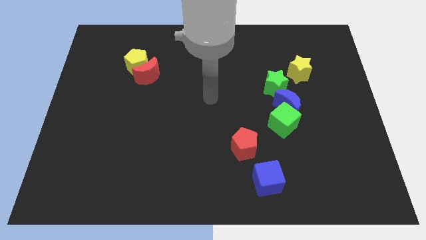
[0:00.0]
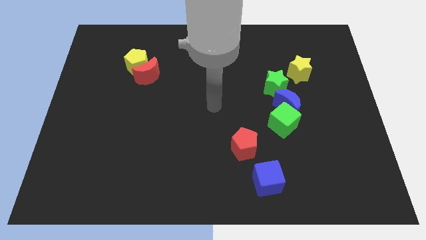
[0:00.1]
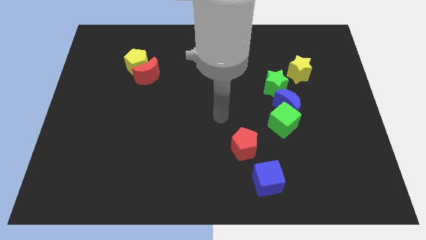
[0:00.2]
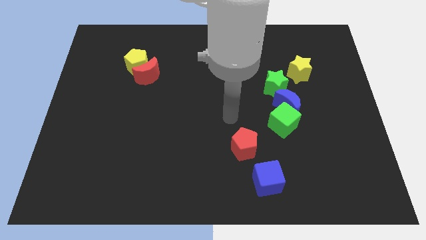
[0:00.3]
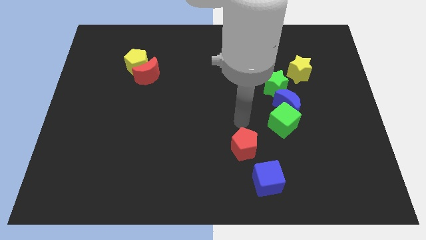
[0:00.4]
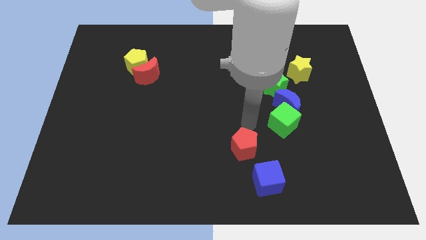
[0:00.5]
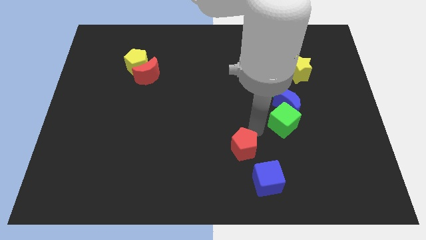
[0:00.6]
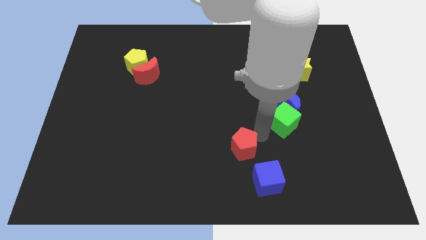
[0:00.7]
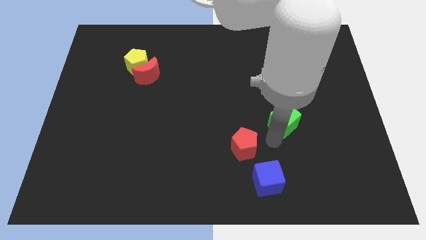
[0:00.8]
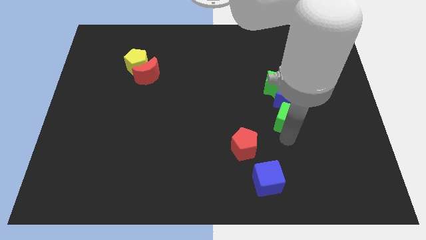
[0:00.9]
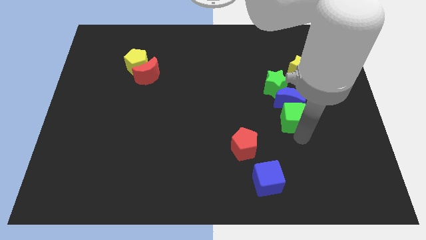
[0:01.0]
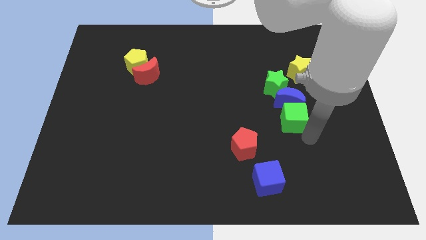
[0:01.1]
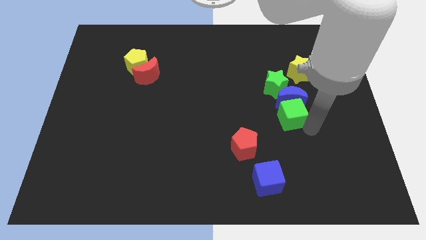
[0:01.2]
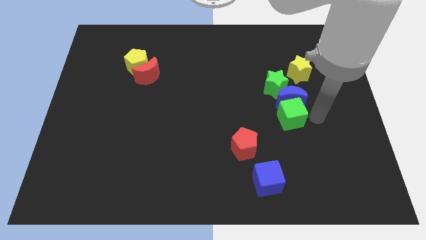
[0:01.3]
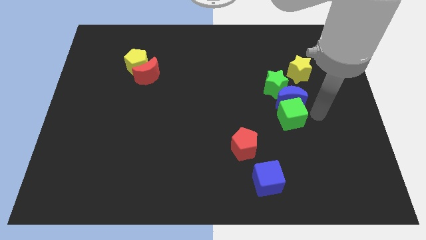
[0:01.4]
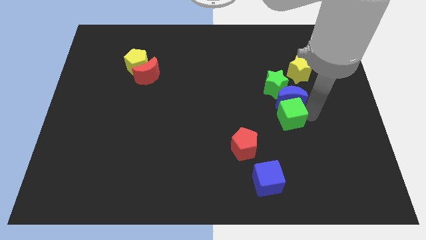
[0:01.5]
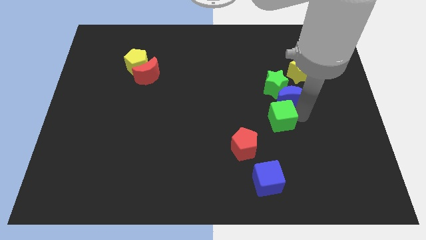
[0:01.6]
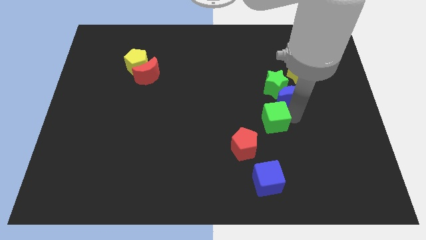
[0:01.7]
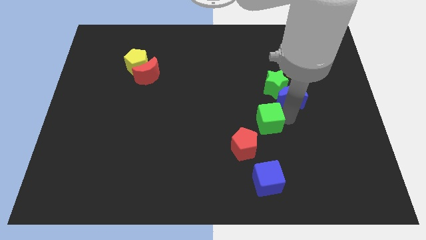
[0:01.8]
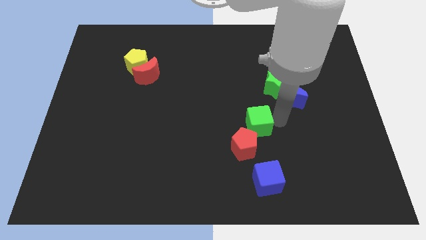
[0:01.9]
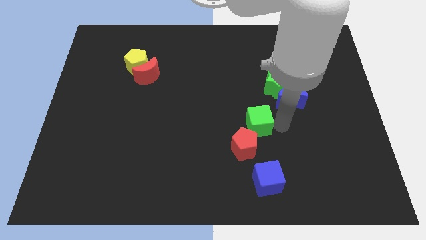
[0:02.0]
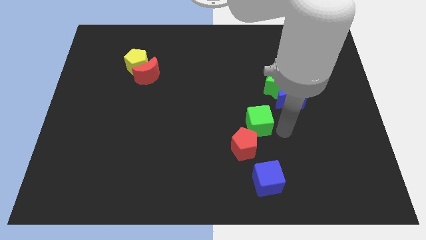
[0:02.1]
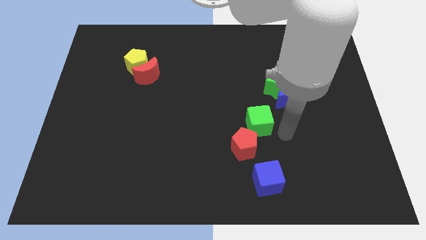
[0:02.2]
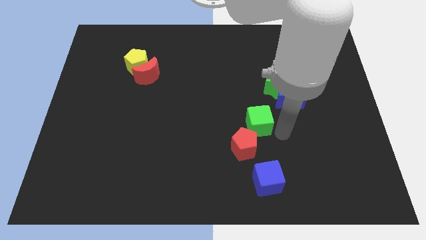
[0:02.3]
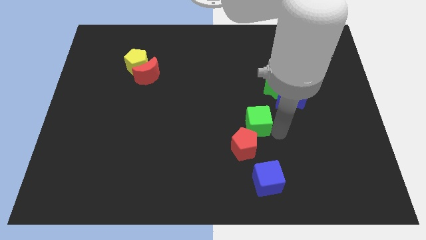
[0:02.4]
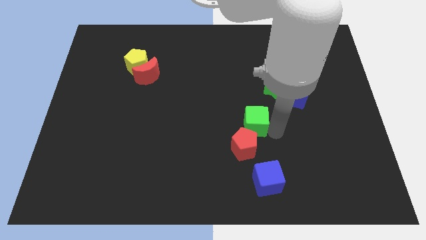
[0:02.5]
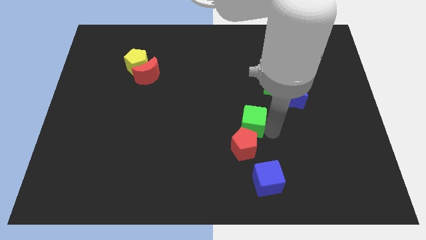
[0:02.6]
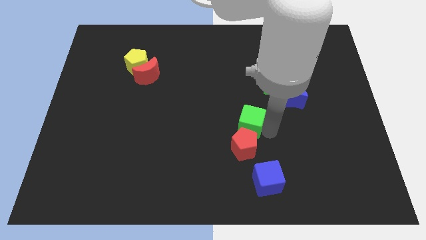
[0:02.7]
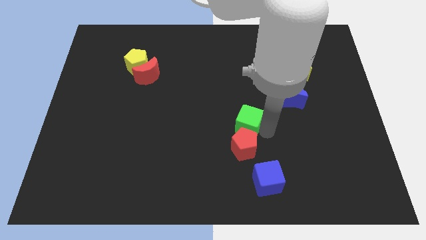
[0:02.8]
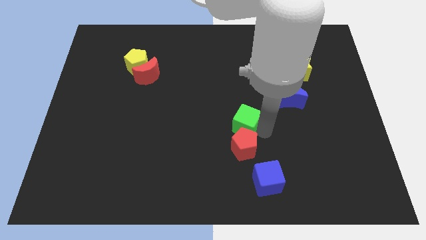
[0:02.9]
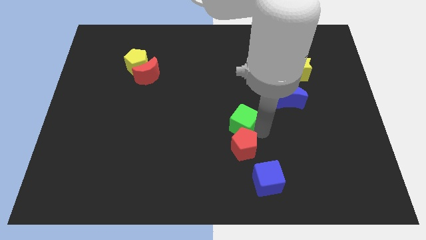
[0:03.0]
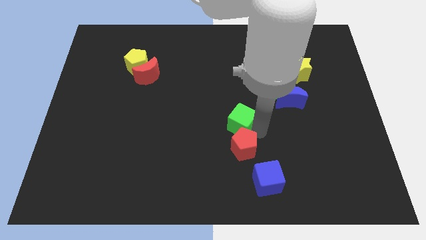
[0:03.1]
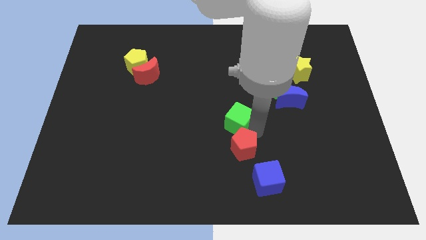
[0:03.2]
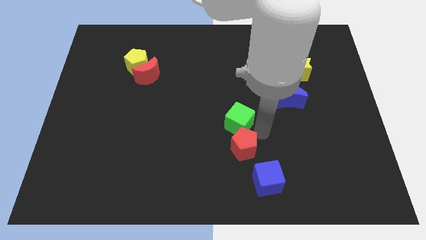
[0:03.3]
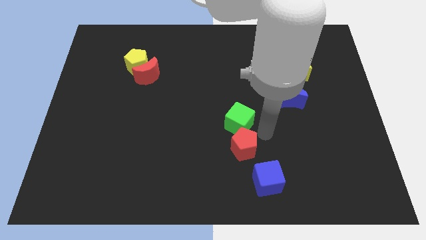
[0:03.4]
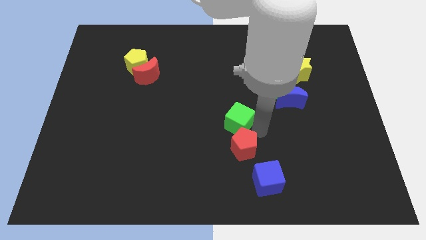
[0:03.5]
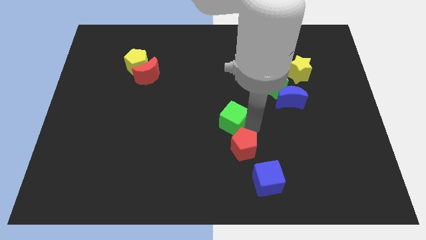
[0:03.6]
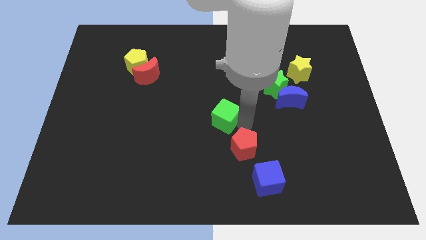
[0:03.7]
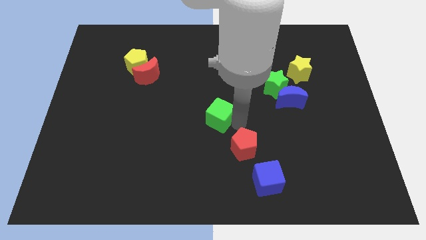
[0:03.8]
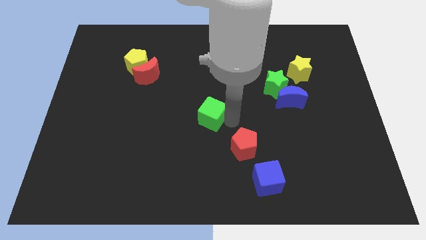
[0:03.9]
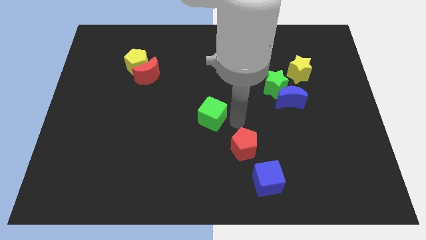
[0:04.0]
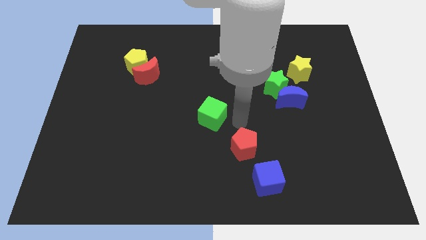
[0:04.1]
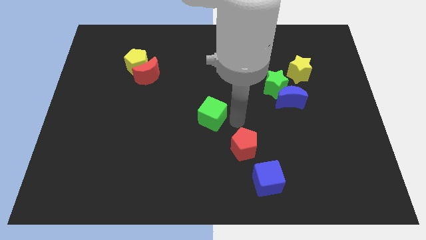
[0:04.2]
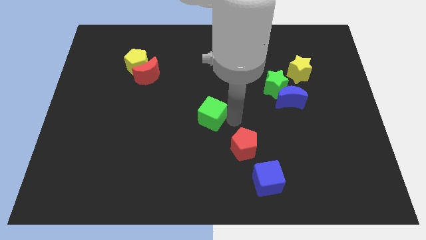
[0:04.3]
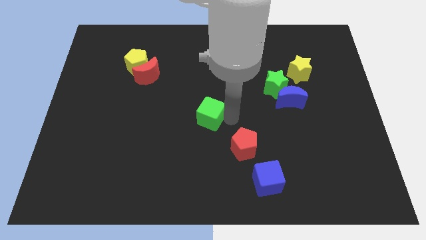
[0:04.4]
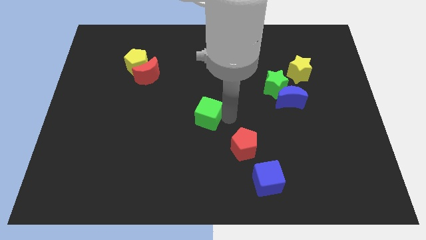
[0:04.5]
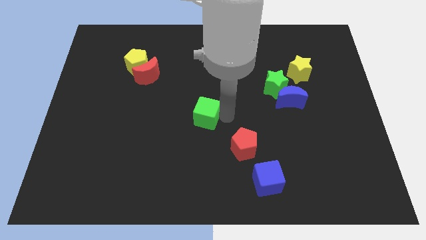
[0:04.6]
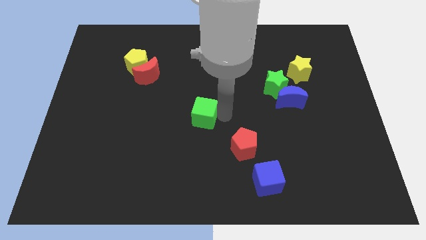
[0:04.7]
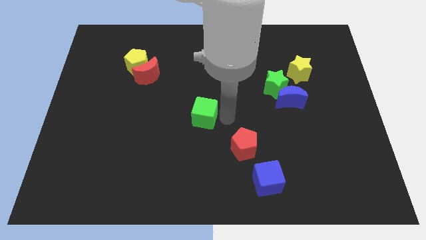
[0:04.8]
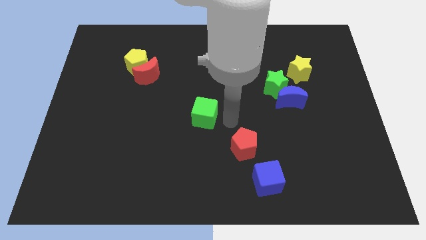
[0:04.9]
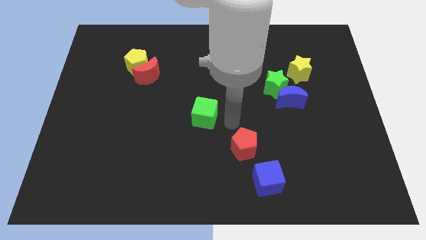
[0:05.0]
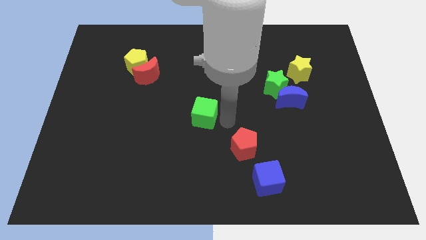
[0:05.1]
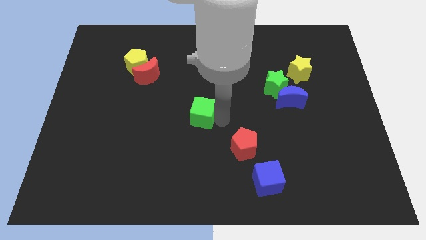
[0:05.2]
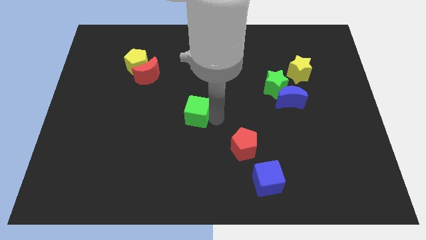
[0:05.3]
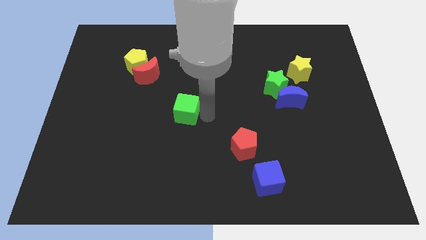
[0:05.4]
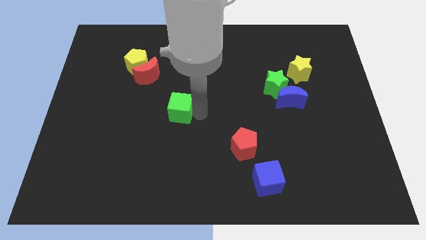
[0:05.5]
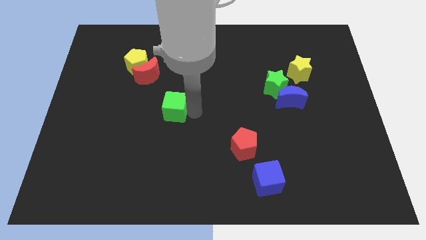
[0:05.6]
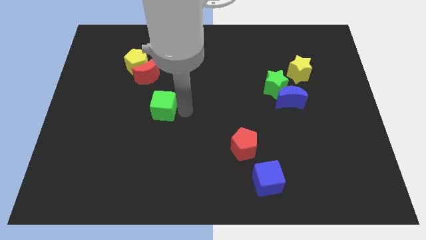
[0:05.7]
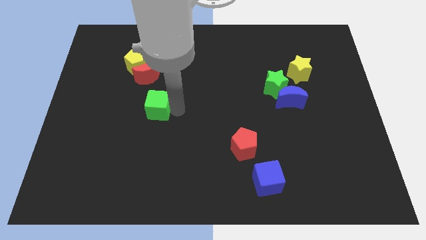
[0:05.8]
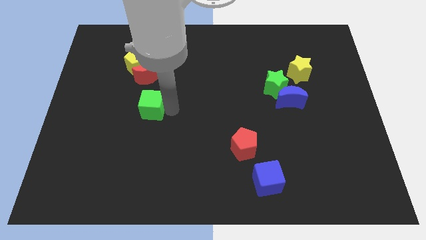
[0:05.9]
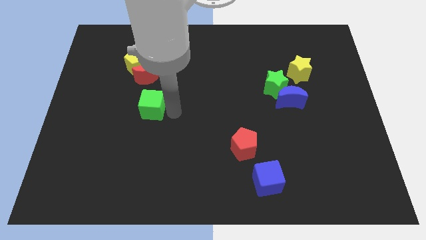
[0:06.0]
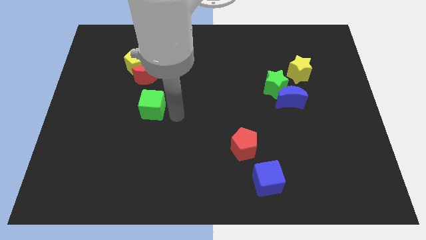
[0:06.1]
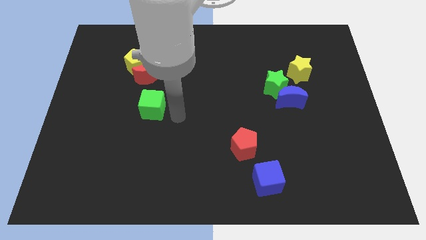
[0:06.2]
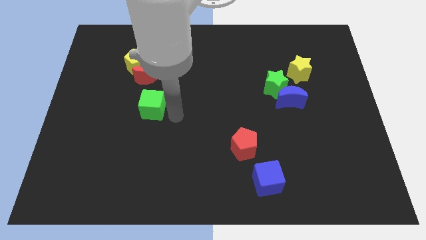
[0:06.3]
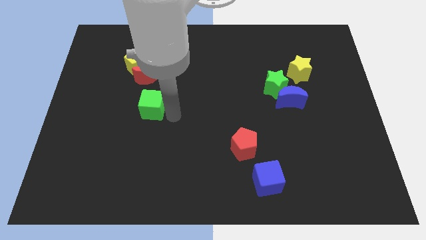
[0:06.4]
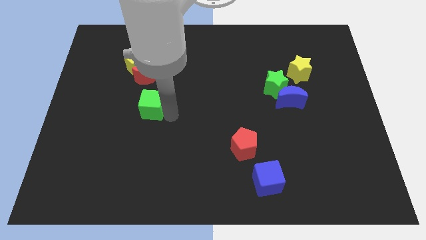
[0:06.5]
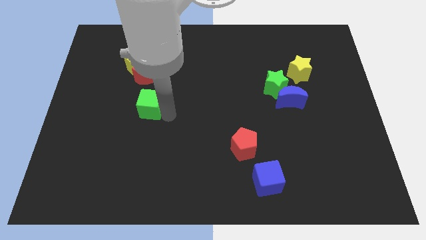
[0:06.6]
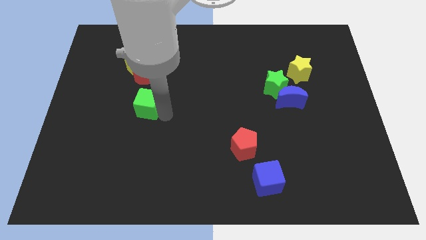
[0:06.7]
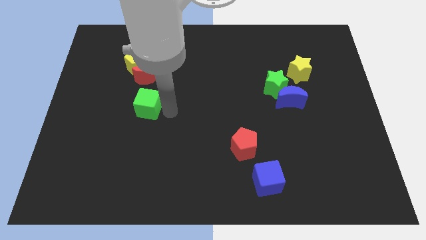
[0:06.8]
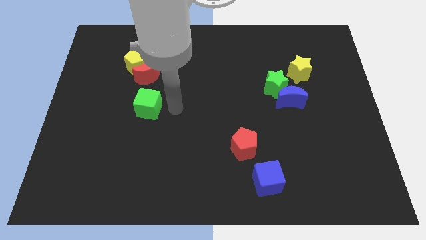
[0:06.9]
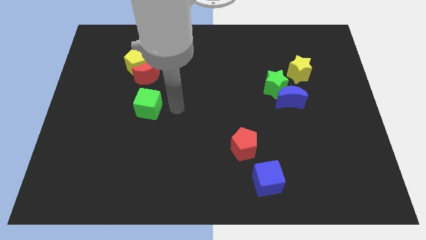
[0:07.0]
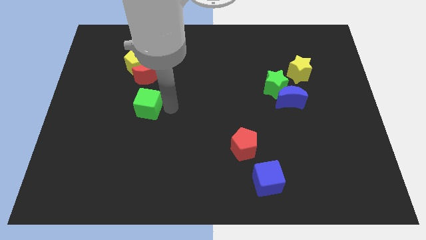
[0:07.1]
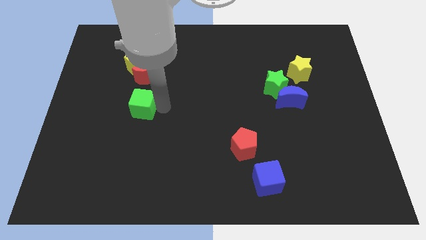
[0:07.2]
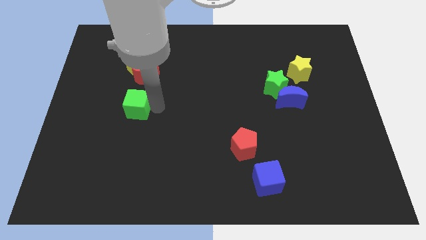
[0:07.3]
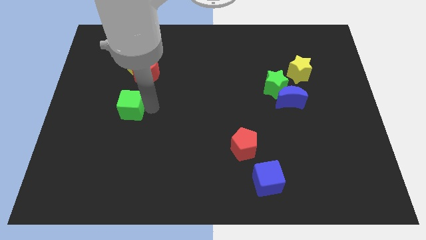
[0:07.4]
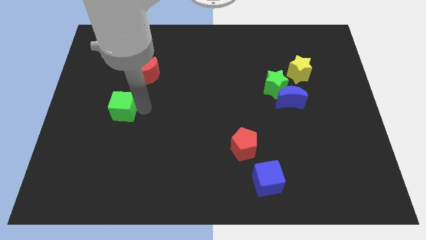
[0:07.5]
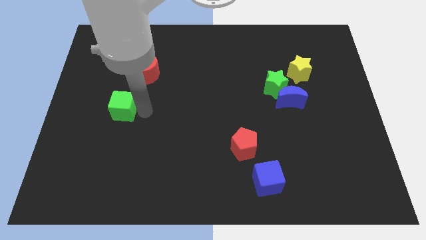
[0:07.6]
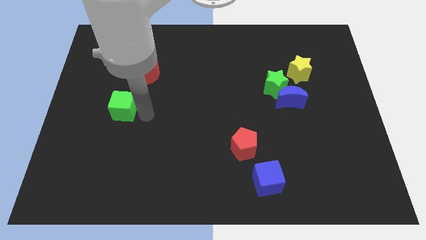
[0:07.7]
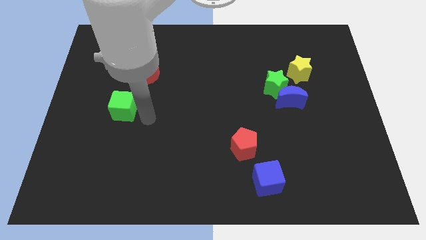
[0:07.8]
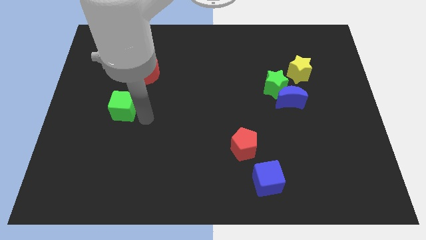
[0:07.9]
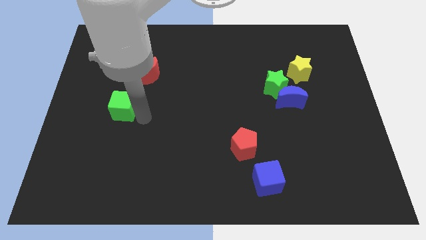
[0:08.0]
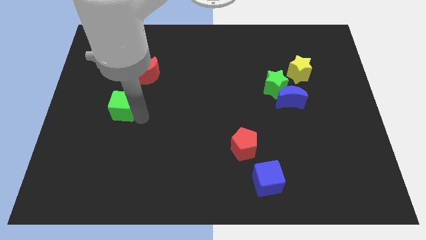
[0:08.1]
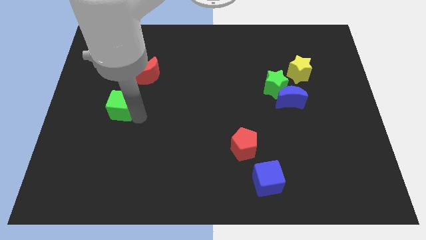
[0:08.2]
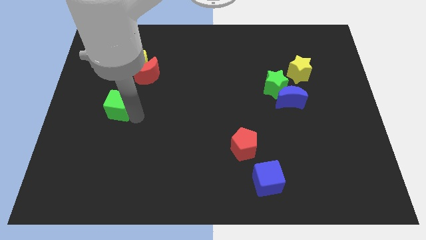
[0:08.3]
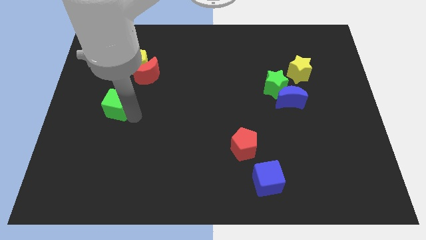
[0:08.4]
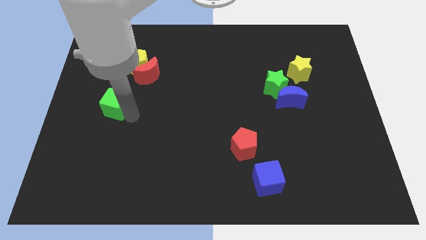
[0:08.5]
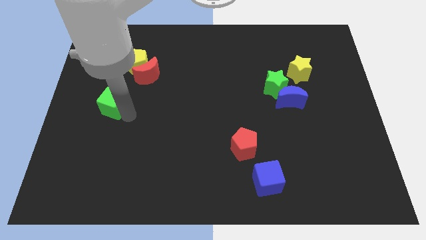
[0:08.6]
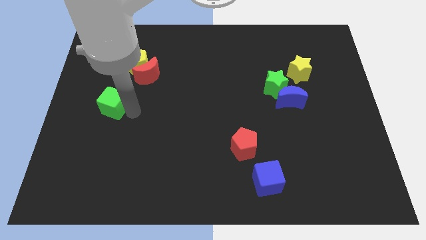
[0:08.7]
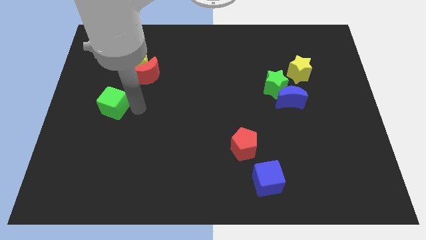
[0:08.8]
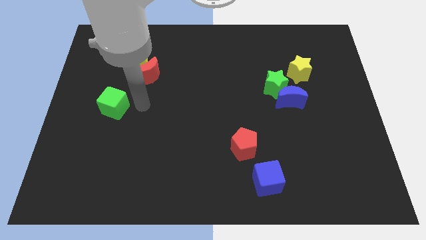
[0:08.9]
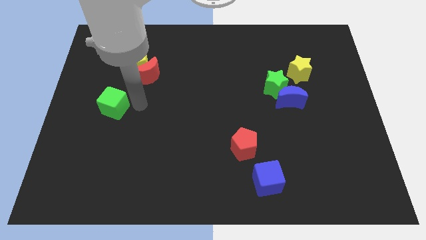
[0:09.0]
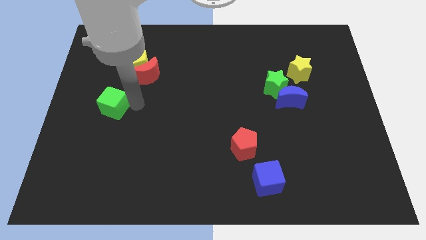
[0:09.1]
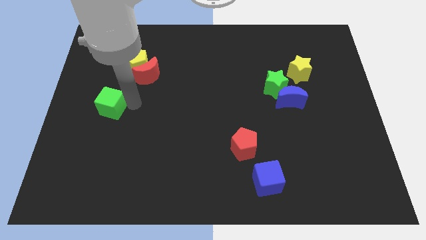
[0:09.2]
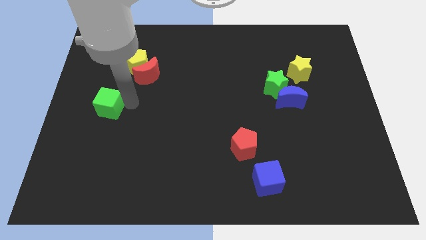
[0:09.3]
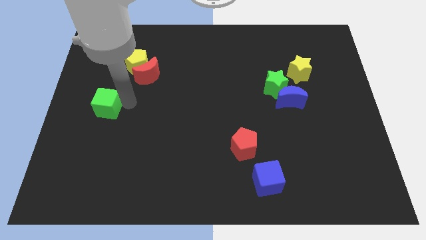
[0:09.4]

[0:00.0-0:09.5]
put the green cube to the left side of the board
